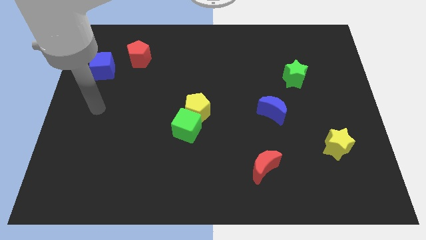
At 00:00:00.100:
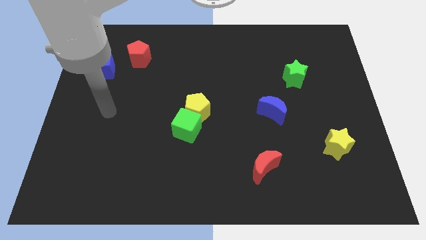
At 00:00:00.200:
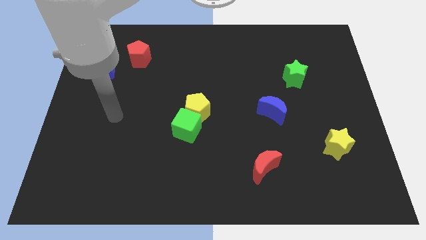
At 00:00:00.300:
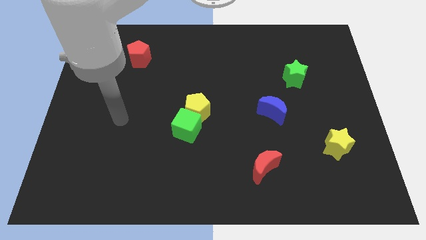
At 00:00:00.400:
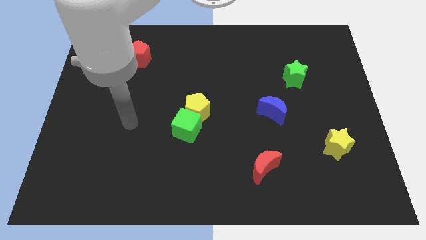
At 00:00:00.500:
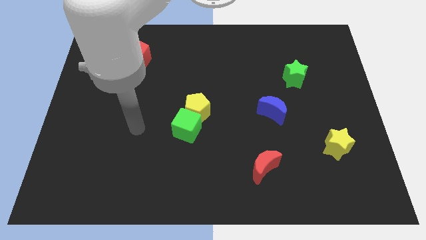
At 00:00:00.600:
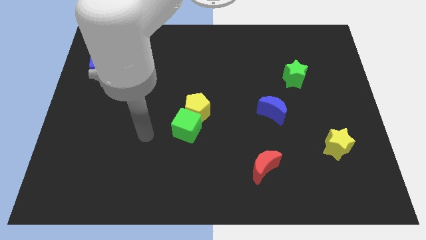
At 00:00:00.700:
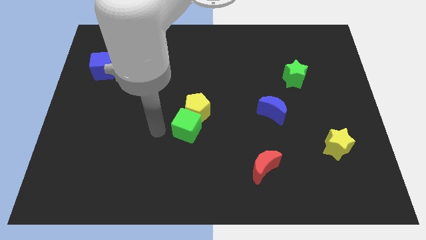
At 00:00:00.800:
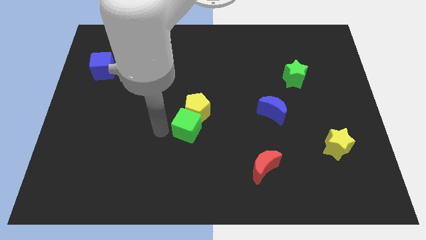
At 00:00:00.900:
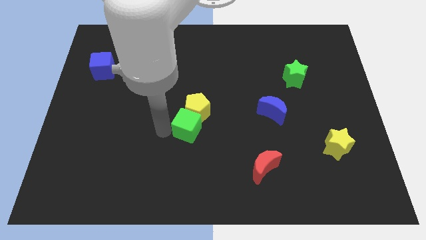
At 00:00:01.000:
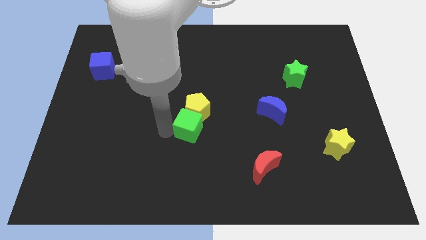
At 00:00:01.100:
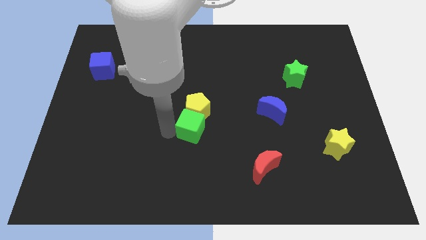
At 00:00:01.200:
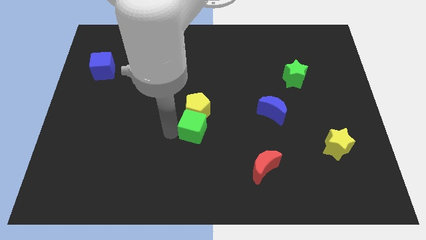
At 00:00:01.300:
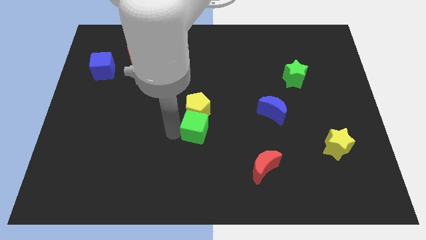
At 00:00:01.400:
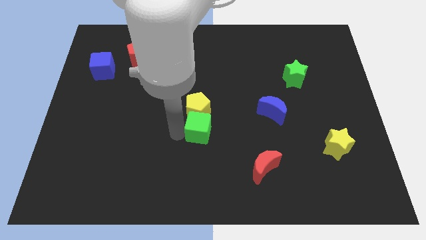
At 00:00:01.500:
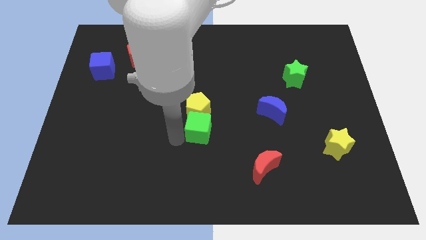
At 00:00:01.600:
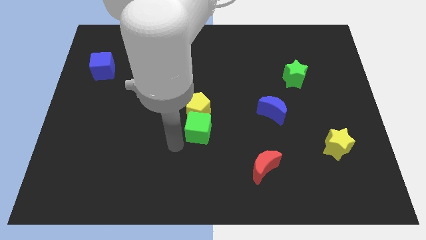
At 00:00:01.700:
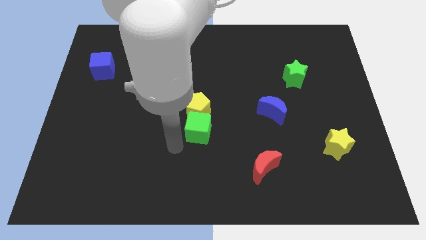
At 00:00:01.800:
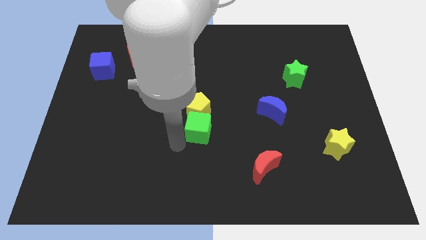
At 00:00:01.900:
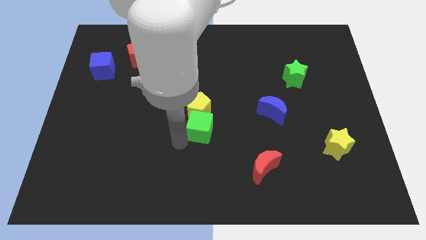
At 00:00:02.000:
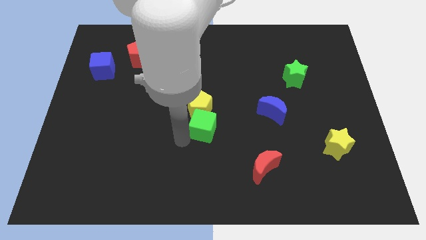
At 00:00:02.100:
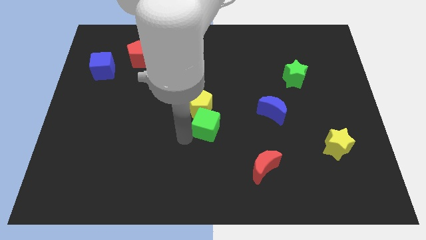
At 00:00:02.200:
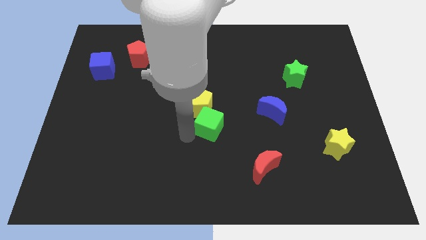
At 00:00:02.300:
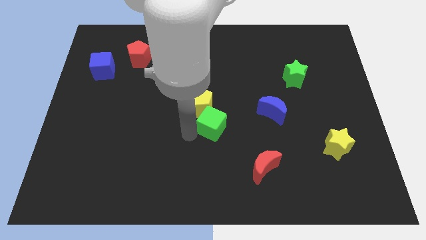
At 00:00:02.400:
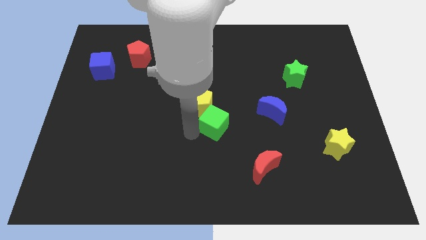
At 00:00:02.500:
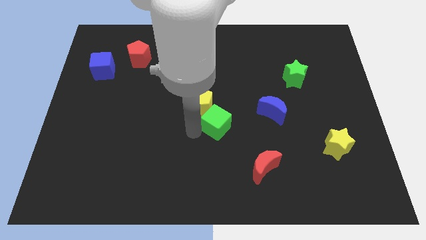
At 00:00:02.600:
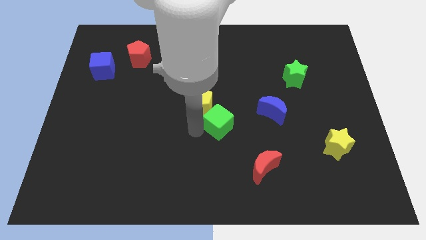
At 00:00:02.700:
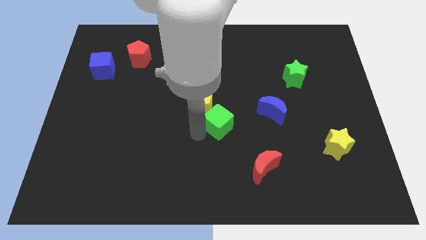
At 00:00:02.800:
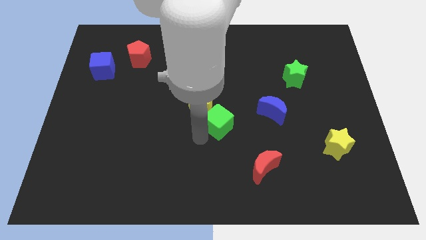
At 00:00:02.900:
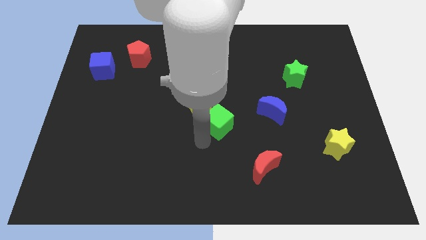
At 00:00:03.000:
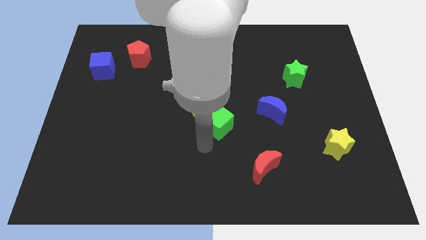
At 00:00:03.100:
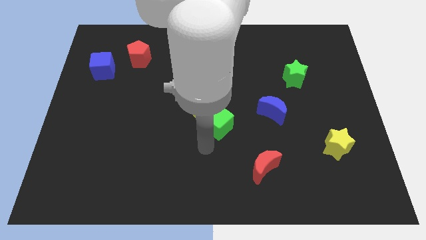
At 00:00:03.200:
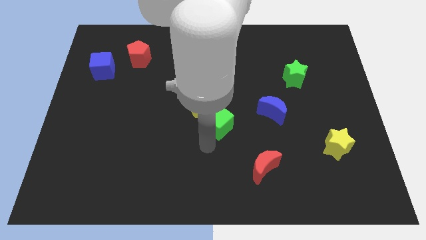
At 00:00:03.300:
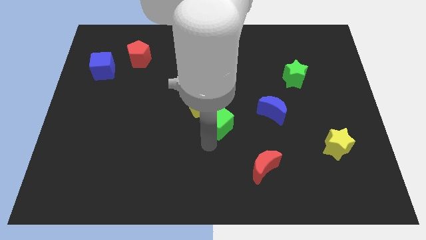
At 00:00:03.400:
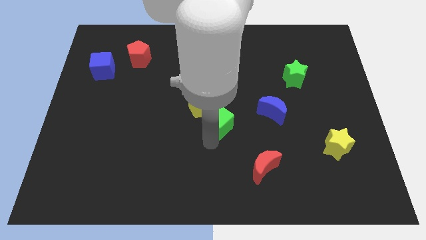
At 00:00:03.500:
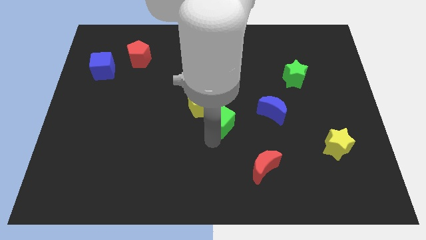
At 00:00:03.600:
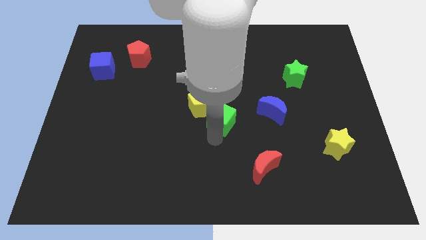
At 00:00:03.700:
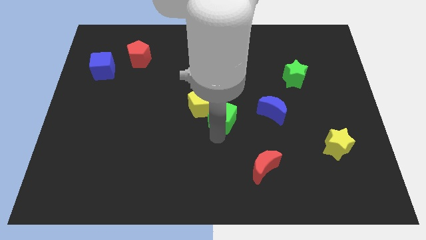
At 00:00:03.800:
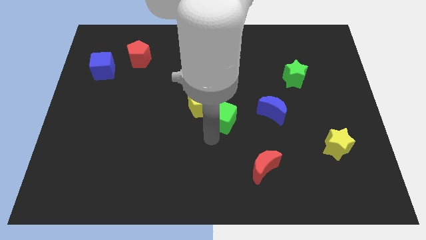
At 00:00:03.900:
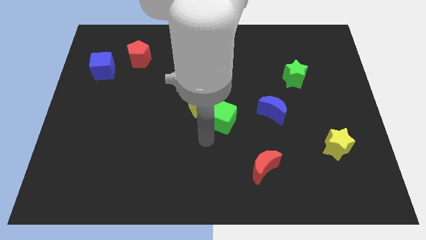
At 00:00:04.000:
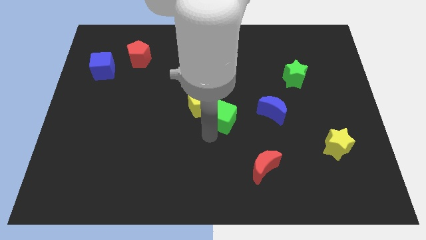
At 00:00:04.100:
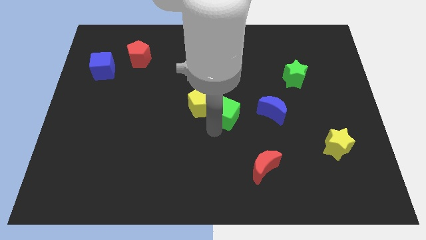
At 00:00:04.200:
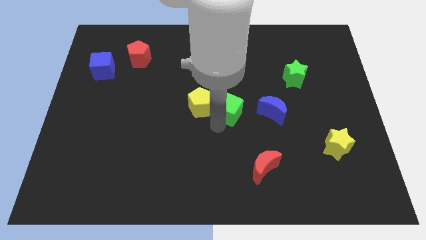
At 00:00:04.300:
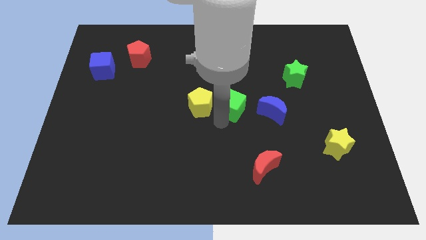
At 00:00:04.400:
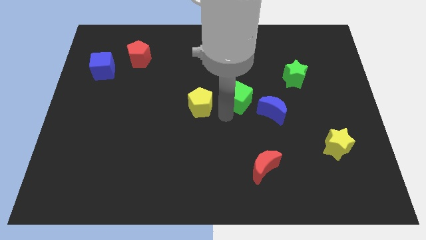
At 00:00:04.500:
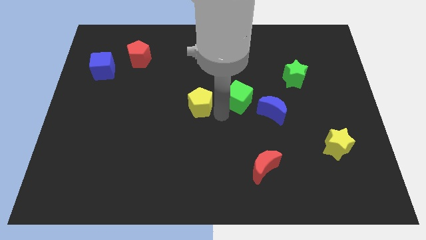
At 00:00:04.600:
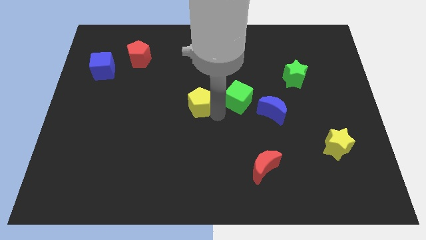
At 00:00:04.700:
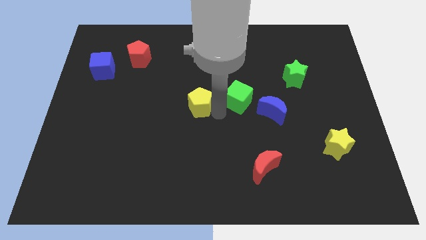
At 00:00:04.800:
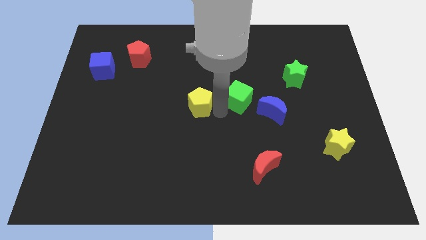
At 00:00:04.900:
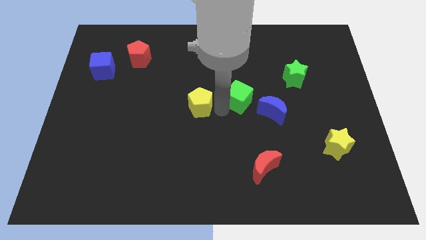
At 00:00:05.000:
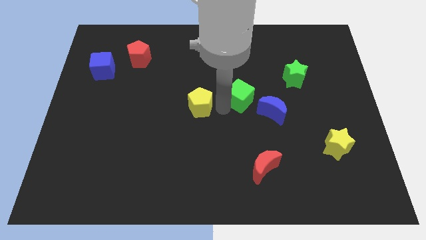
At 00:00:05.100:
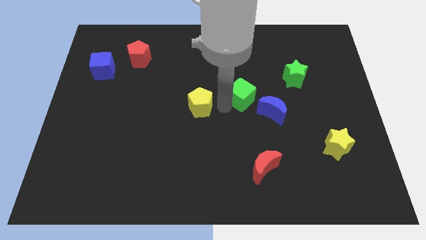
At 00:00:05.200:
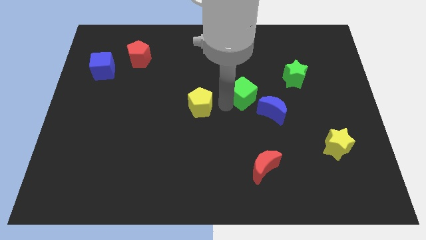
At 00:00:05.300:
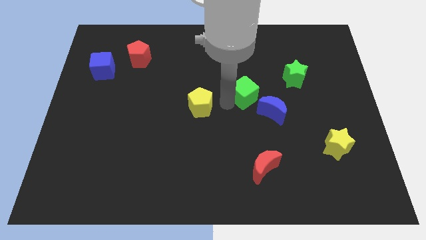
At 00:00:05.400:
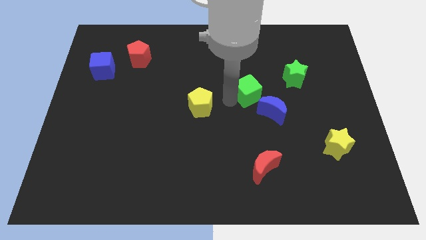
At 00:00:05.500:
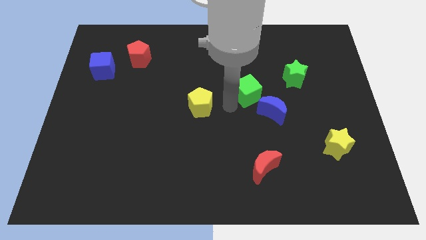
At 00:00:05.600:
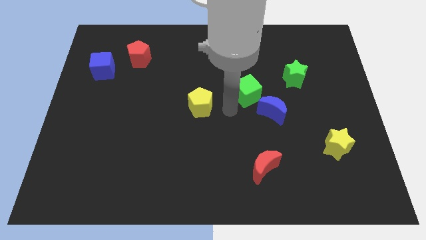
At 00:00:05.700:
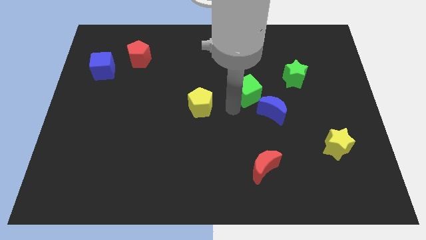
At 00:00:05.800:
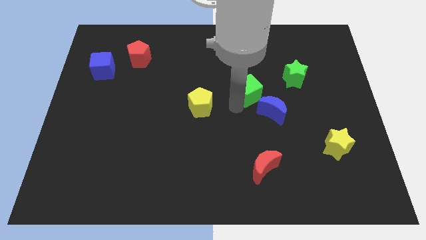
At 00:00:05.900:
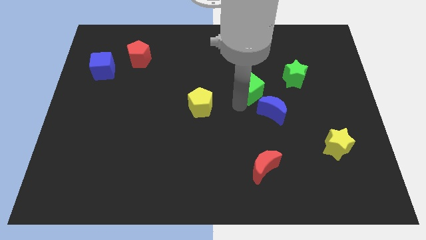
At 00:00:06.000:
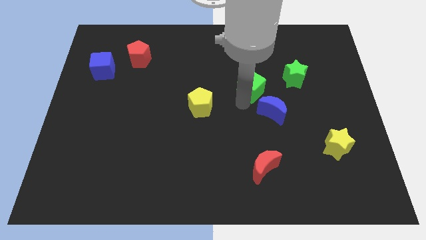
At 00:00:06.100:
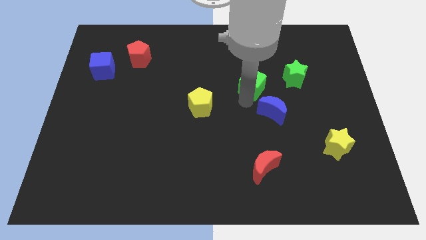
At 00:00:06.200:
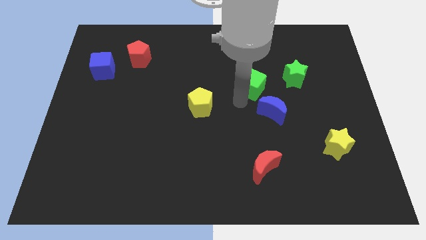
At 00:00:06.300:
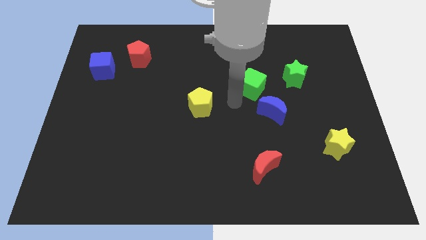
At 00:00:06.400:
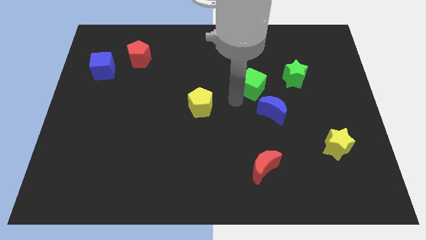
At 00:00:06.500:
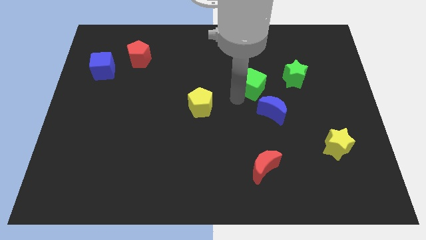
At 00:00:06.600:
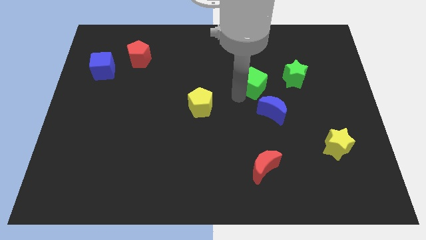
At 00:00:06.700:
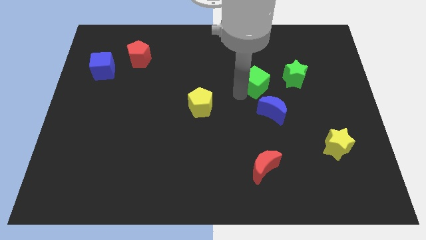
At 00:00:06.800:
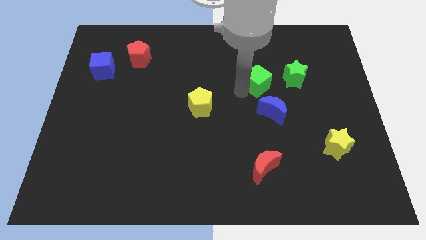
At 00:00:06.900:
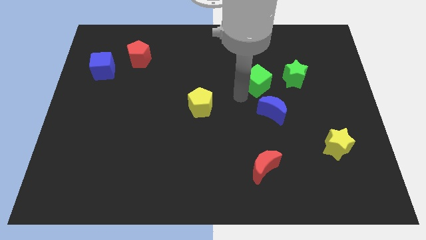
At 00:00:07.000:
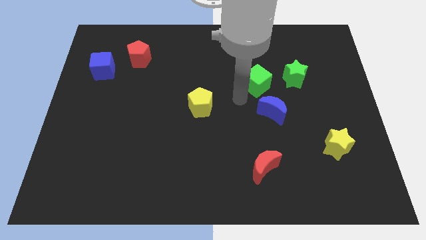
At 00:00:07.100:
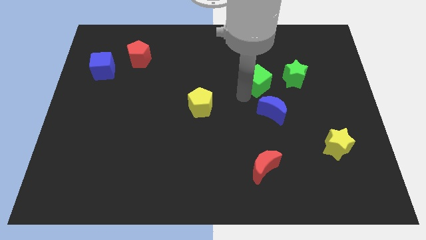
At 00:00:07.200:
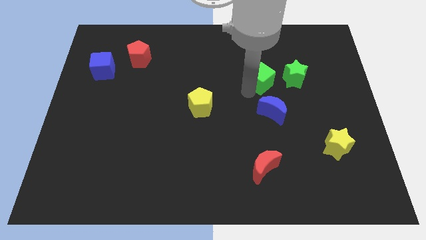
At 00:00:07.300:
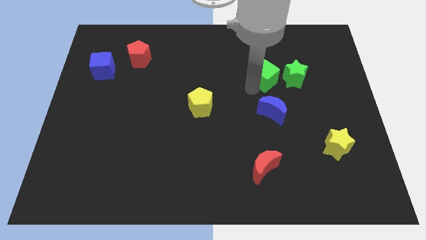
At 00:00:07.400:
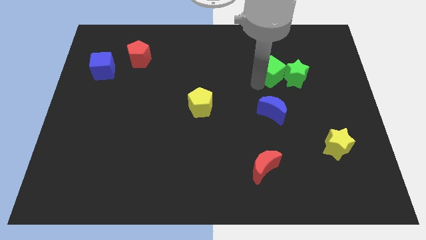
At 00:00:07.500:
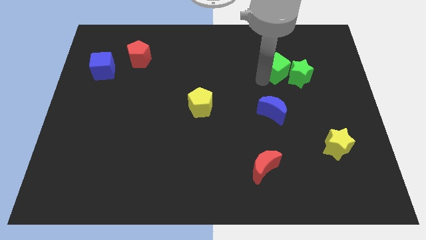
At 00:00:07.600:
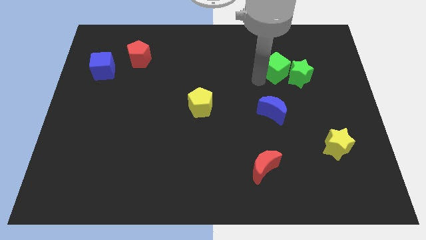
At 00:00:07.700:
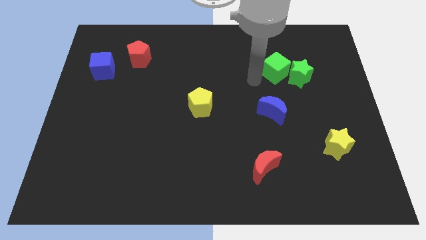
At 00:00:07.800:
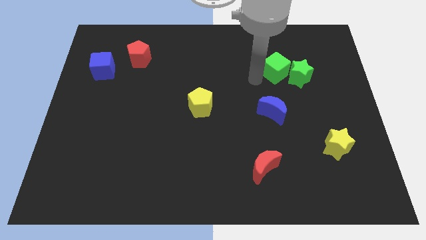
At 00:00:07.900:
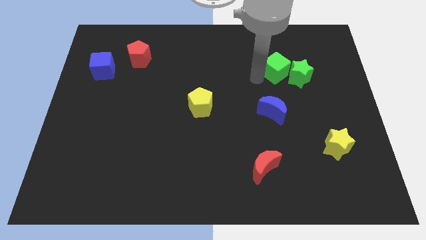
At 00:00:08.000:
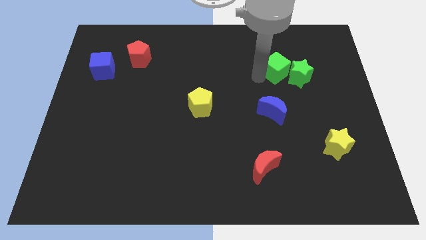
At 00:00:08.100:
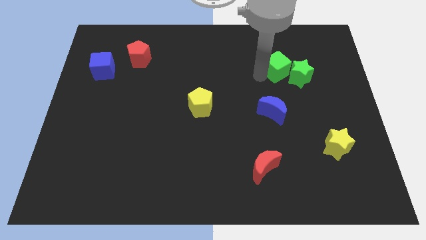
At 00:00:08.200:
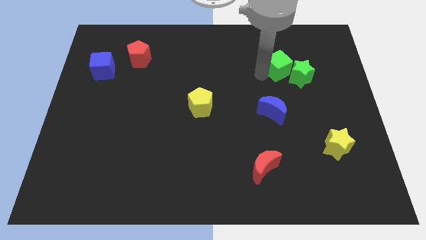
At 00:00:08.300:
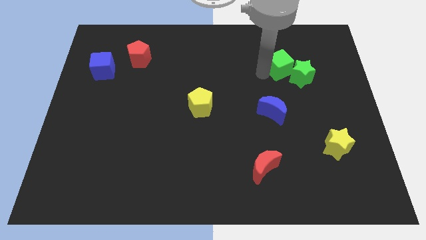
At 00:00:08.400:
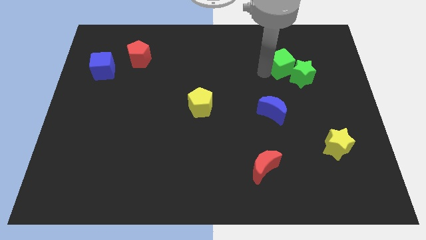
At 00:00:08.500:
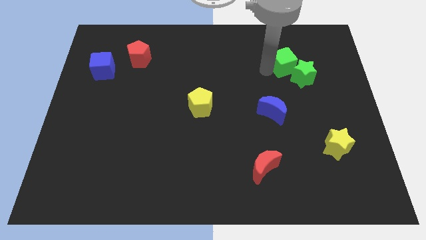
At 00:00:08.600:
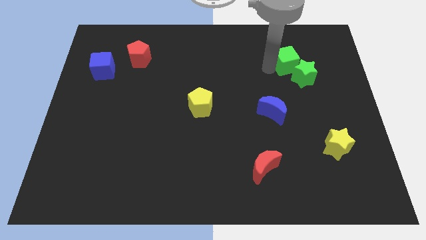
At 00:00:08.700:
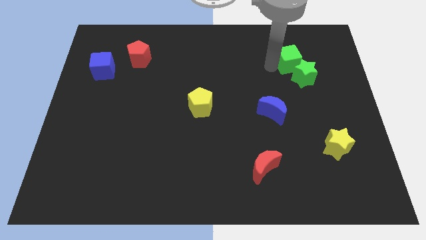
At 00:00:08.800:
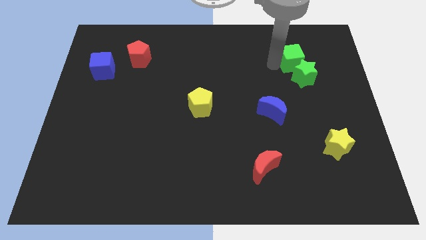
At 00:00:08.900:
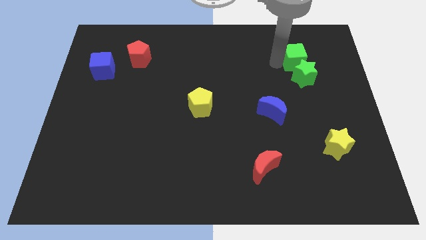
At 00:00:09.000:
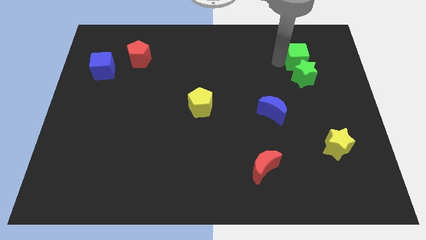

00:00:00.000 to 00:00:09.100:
push the green cube to the top right of the green star
